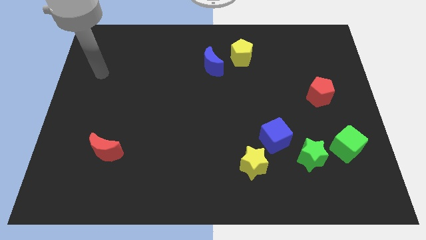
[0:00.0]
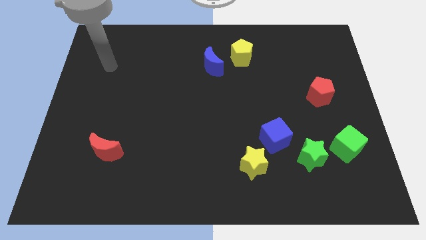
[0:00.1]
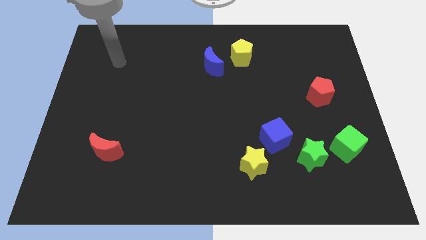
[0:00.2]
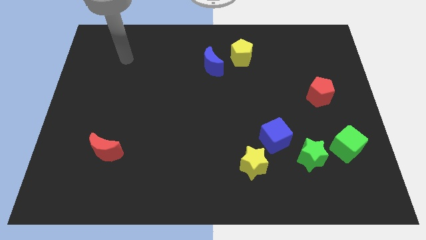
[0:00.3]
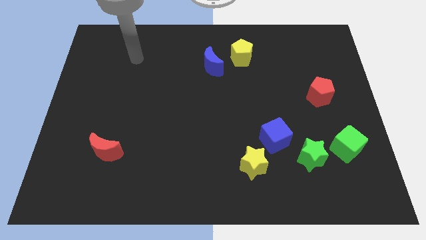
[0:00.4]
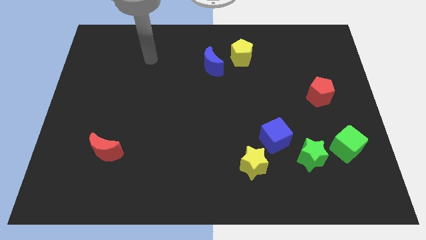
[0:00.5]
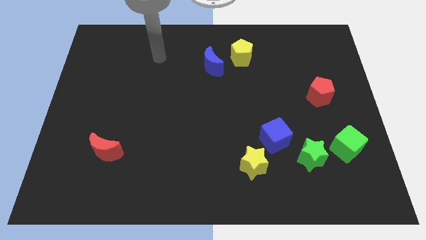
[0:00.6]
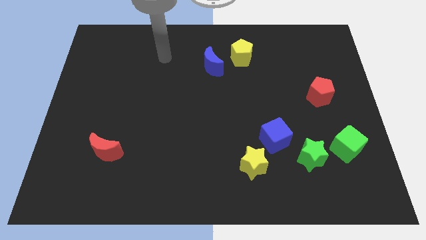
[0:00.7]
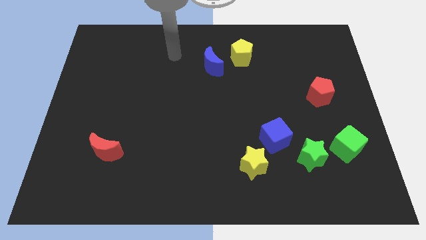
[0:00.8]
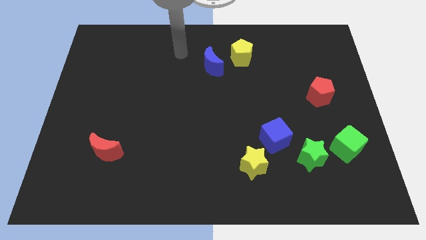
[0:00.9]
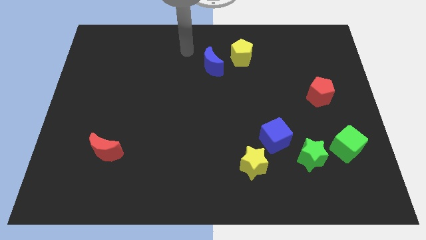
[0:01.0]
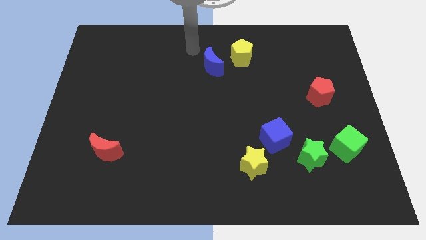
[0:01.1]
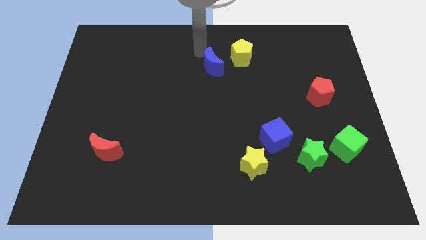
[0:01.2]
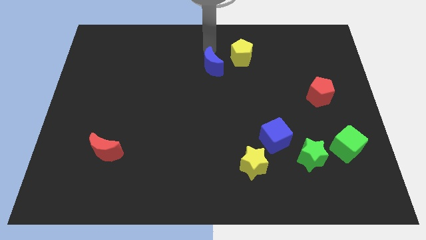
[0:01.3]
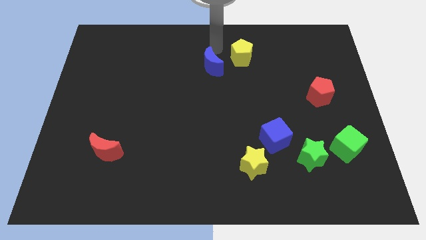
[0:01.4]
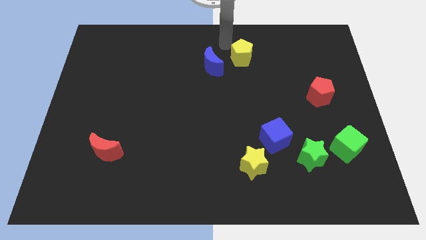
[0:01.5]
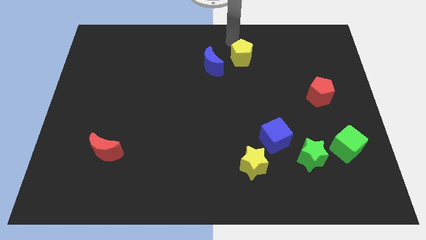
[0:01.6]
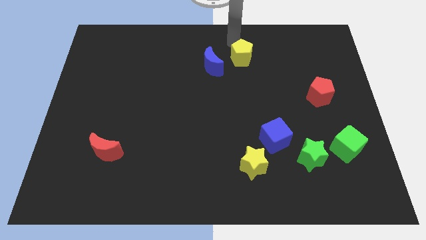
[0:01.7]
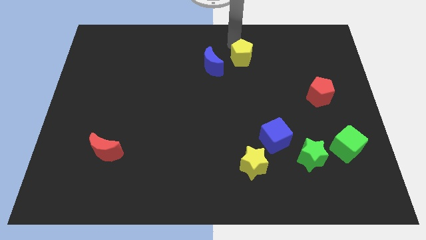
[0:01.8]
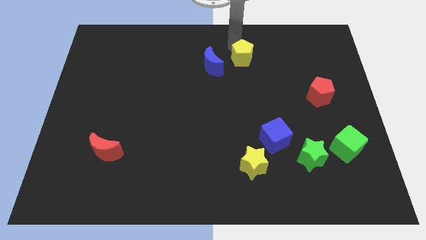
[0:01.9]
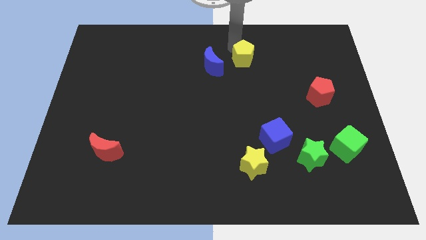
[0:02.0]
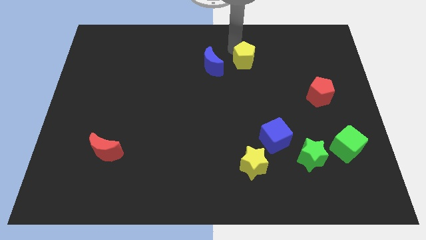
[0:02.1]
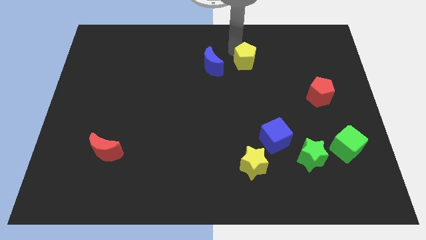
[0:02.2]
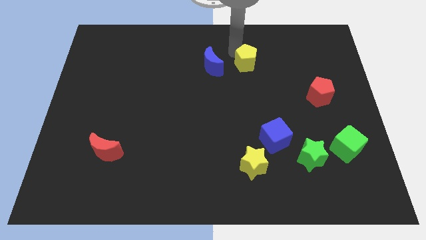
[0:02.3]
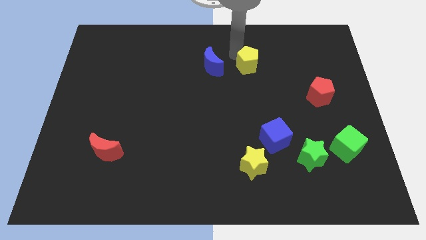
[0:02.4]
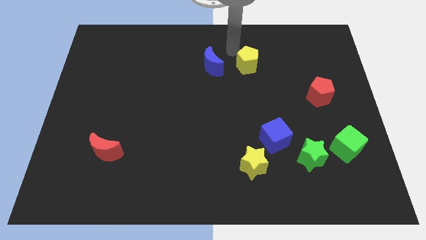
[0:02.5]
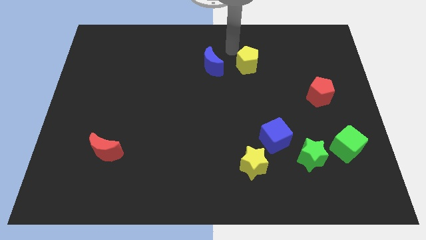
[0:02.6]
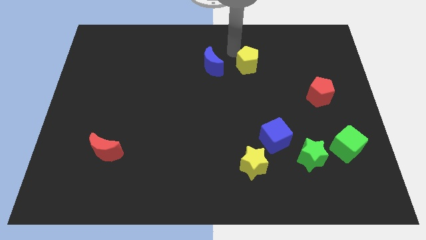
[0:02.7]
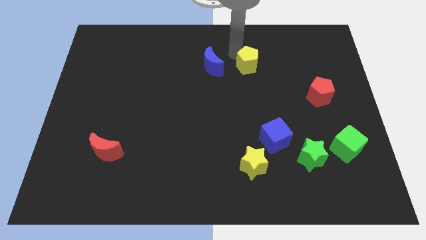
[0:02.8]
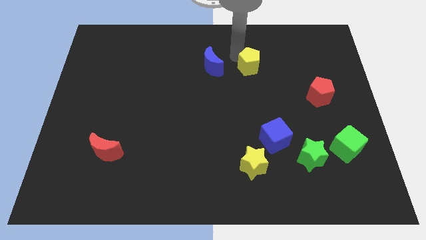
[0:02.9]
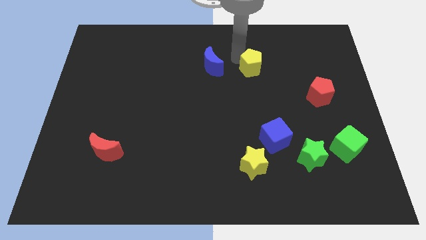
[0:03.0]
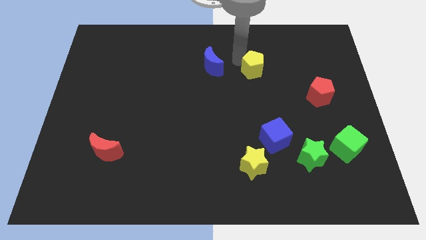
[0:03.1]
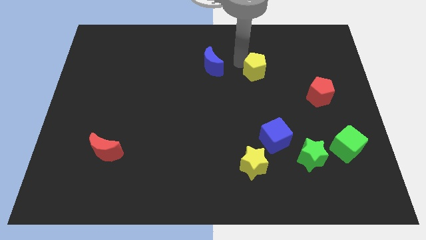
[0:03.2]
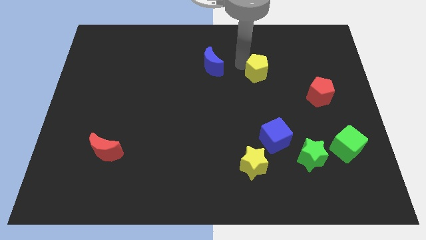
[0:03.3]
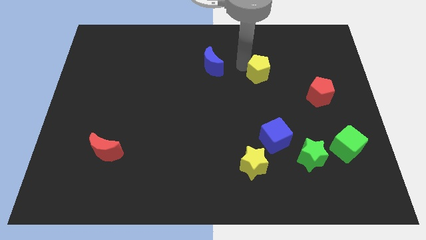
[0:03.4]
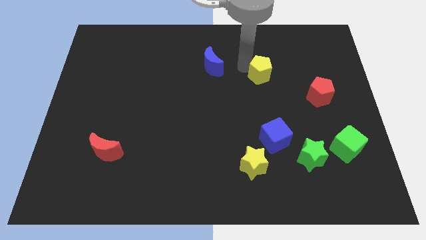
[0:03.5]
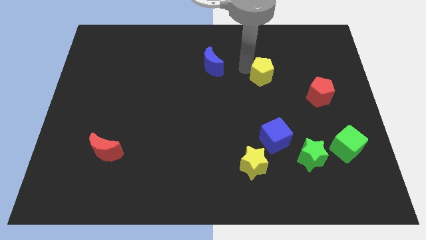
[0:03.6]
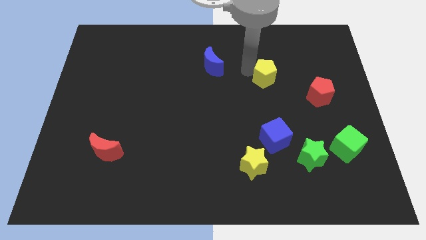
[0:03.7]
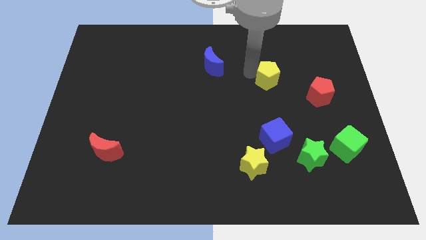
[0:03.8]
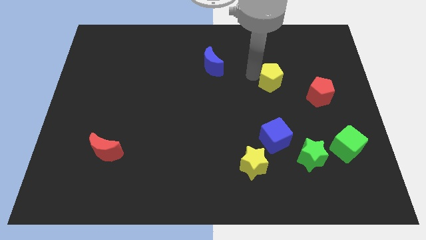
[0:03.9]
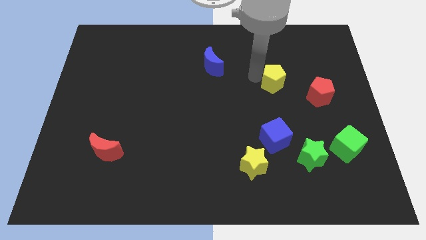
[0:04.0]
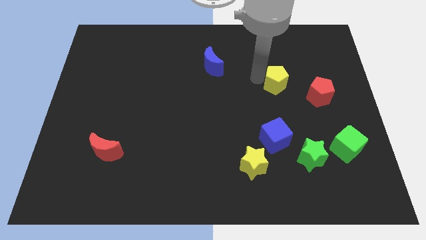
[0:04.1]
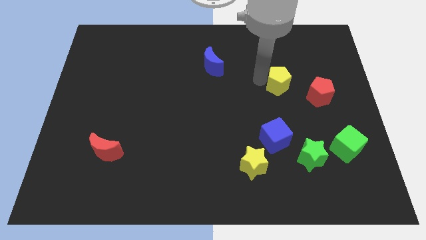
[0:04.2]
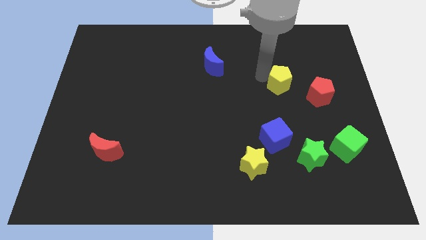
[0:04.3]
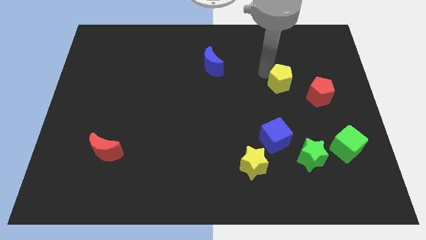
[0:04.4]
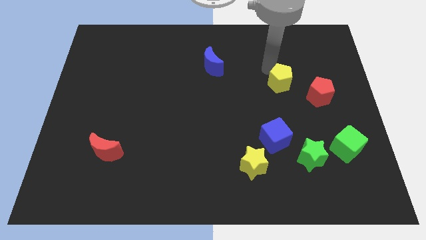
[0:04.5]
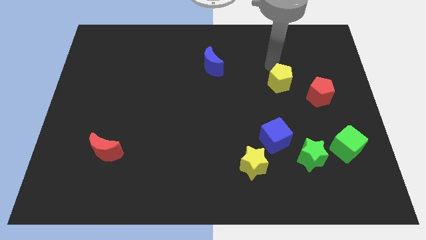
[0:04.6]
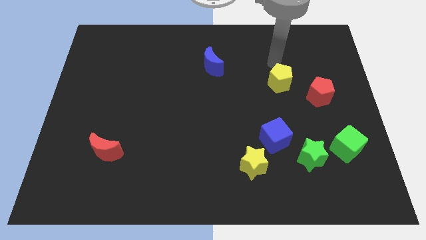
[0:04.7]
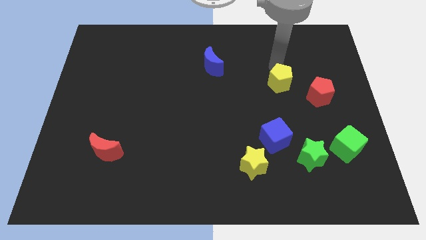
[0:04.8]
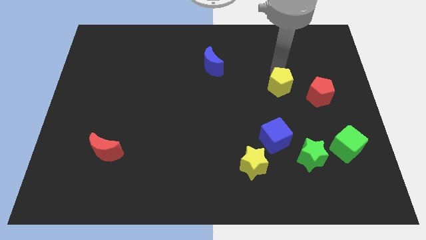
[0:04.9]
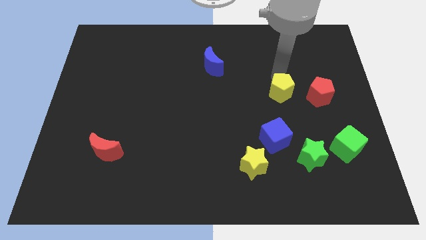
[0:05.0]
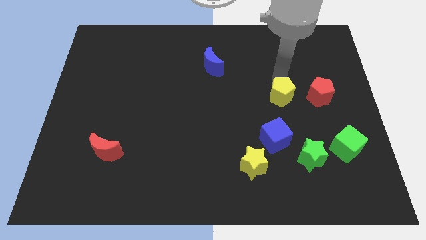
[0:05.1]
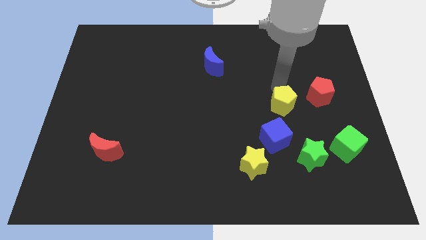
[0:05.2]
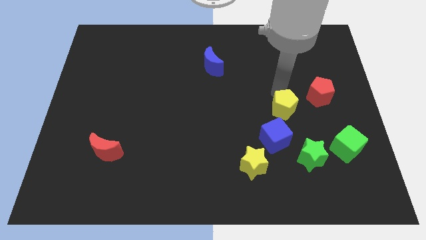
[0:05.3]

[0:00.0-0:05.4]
slide the yellow pentagon above the green star

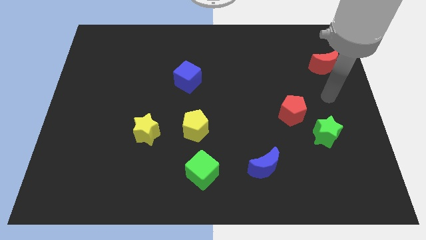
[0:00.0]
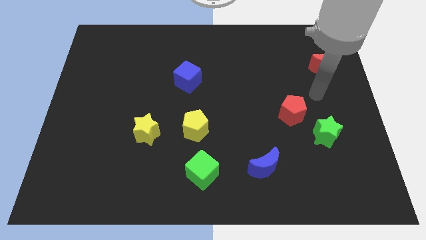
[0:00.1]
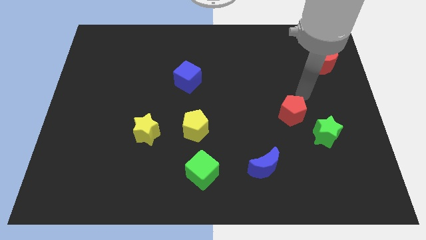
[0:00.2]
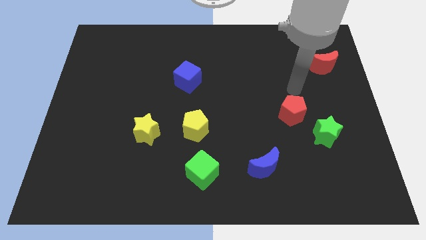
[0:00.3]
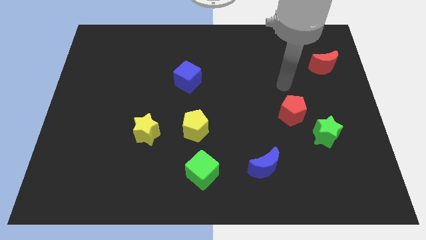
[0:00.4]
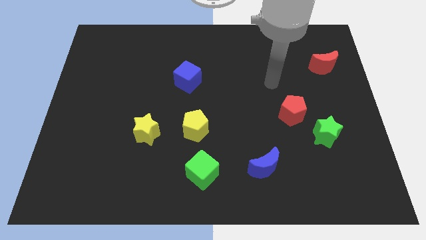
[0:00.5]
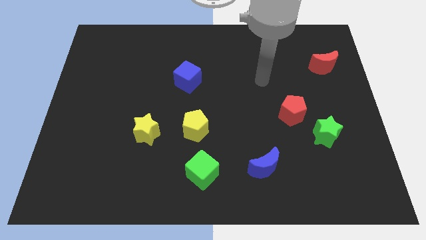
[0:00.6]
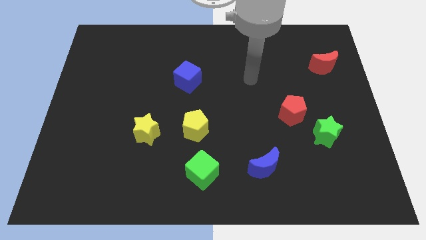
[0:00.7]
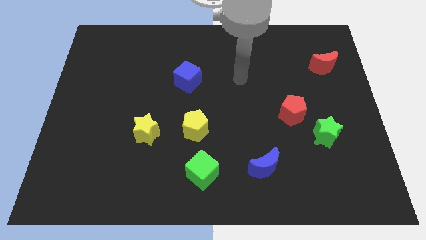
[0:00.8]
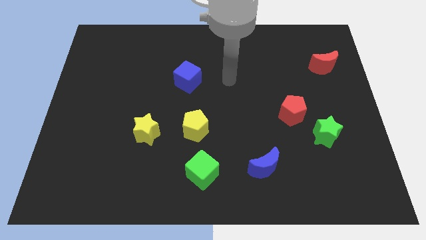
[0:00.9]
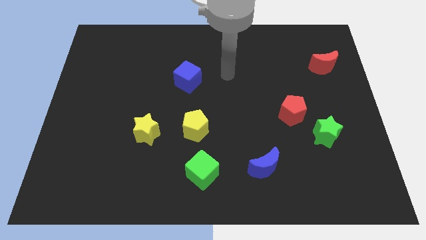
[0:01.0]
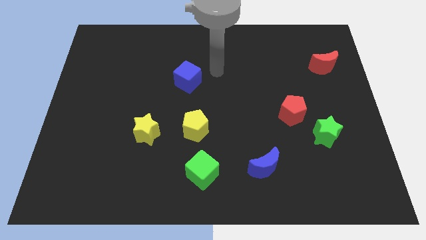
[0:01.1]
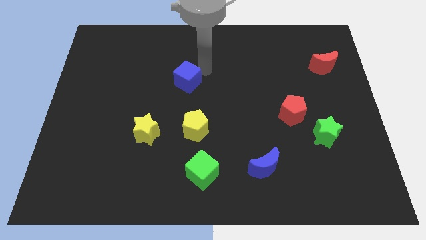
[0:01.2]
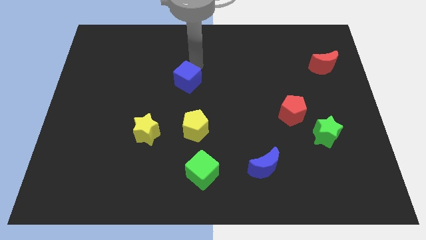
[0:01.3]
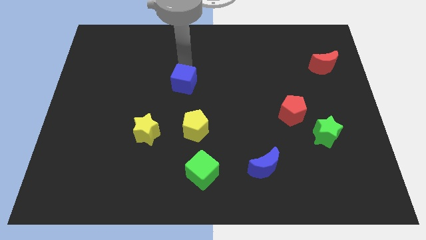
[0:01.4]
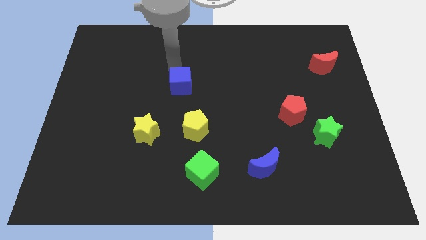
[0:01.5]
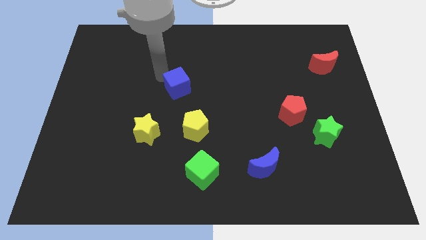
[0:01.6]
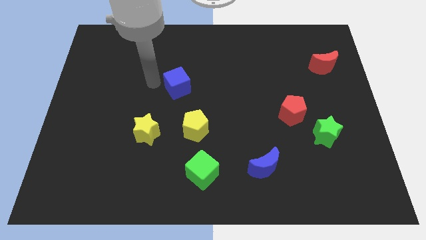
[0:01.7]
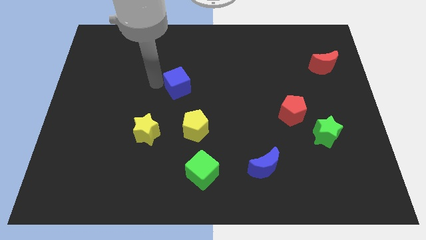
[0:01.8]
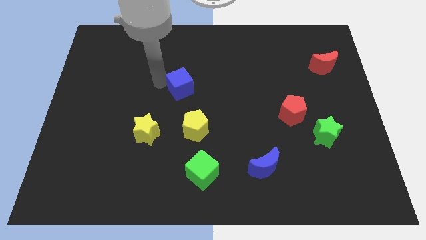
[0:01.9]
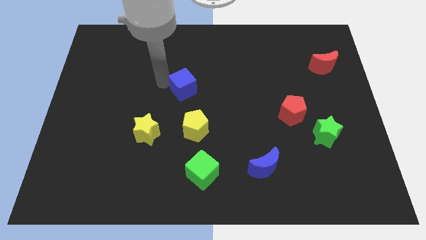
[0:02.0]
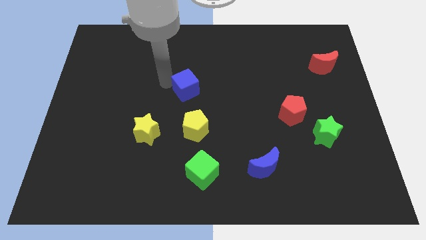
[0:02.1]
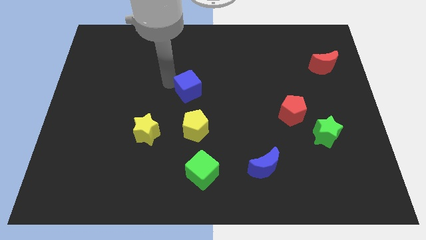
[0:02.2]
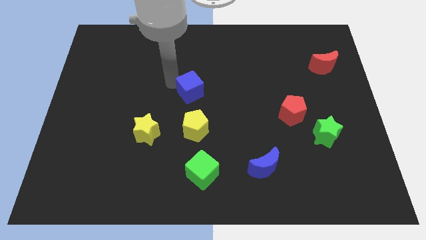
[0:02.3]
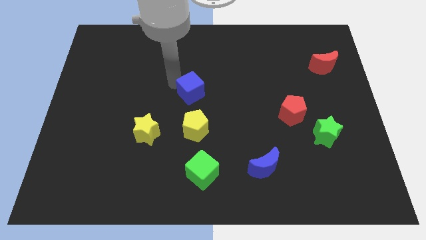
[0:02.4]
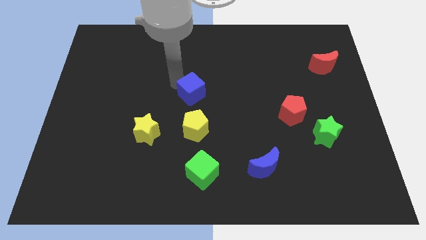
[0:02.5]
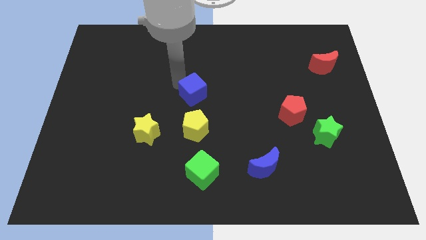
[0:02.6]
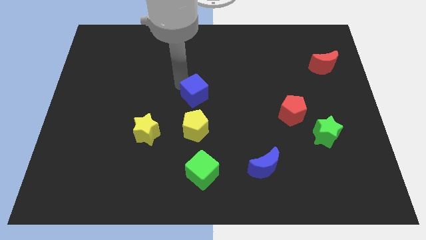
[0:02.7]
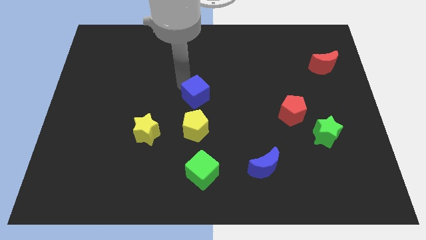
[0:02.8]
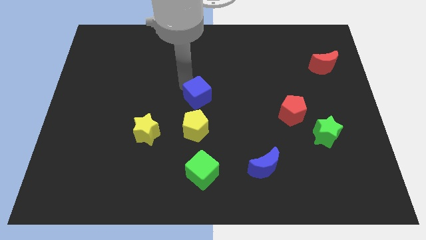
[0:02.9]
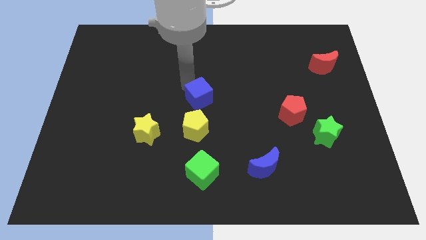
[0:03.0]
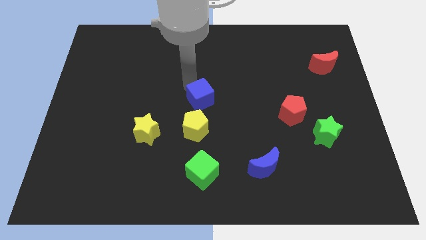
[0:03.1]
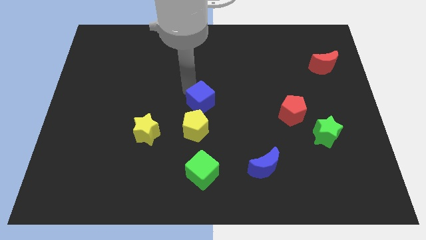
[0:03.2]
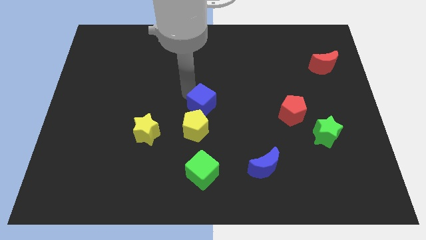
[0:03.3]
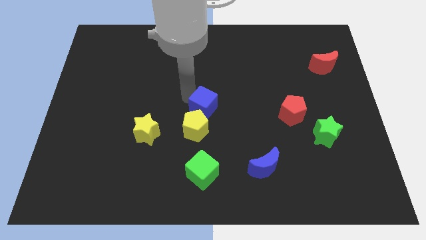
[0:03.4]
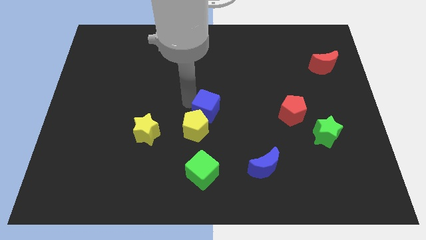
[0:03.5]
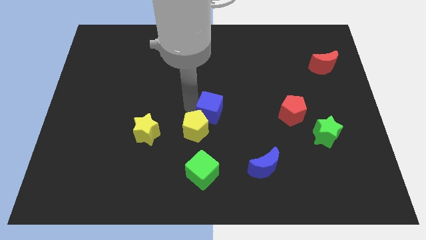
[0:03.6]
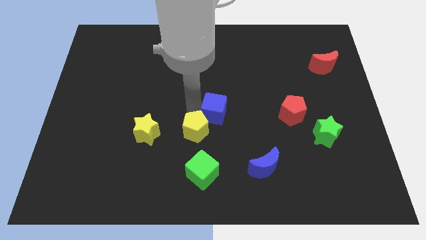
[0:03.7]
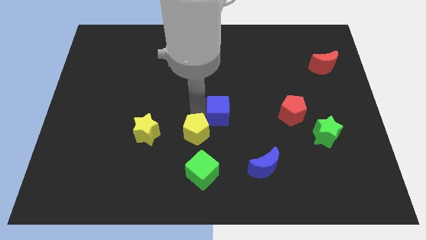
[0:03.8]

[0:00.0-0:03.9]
slide the blue cube to the right side of the yellow pentagon
